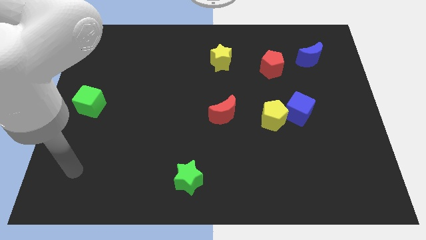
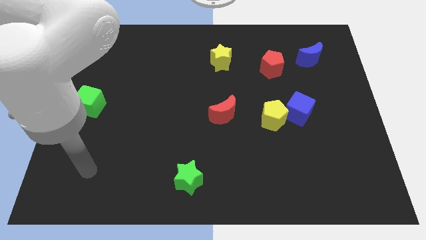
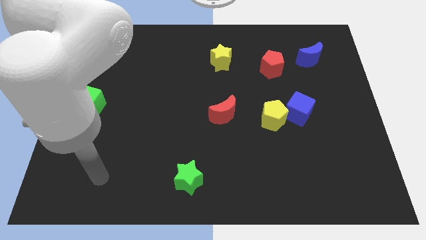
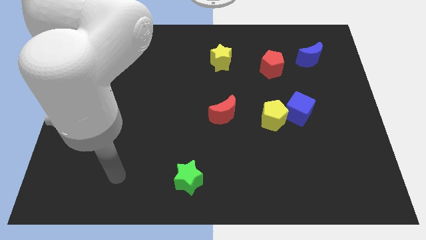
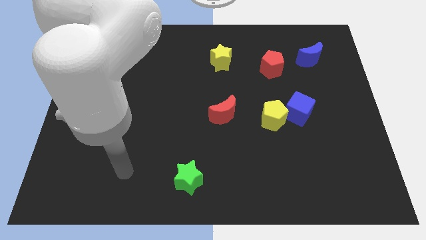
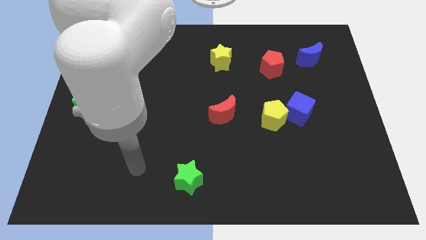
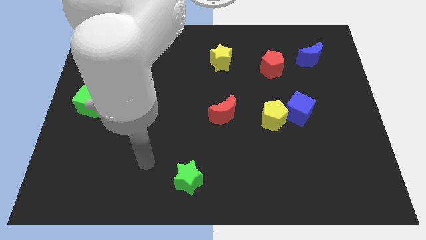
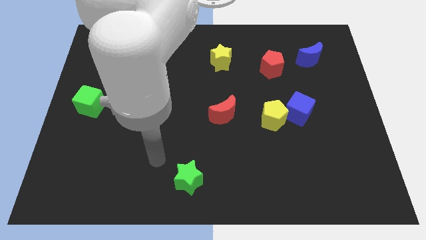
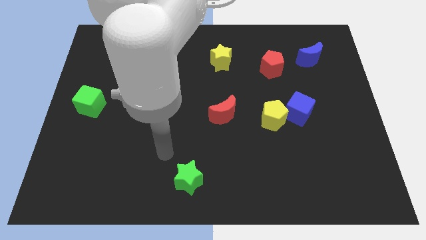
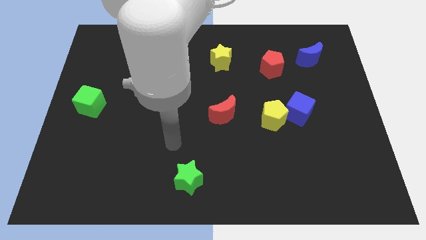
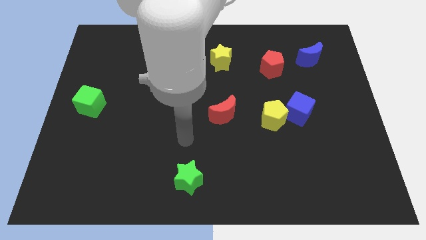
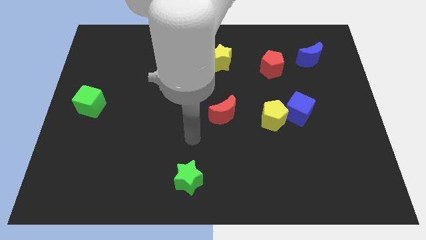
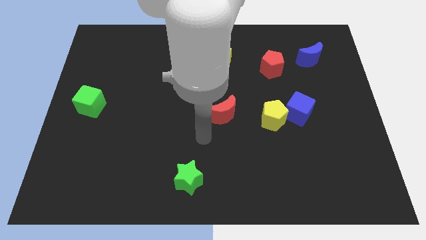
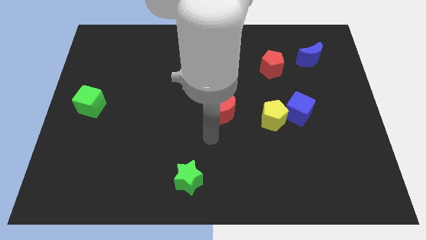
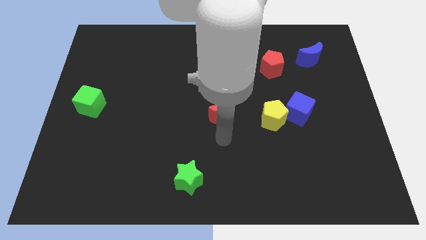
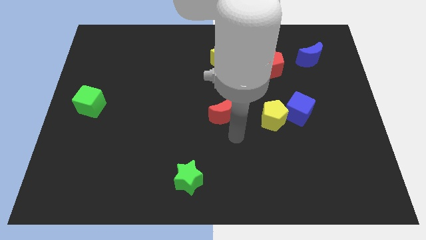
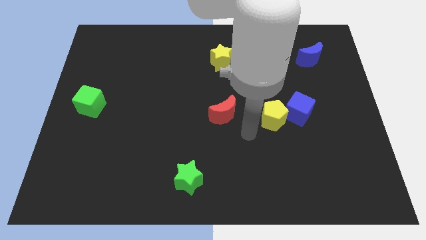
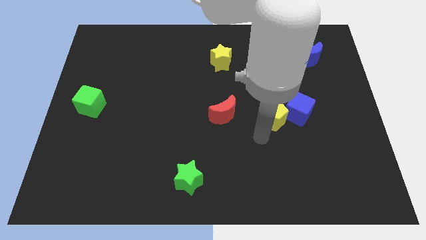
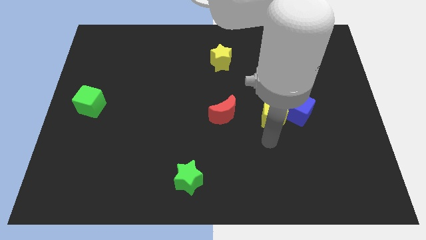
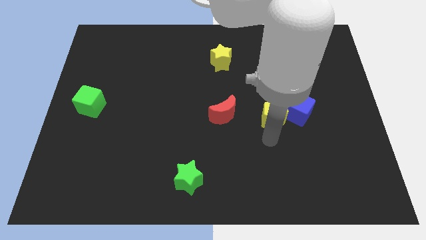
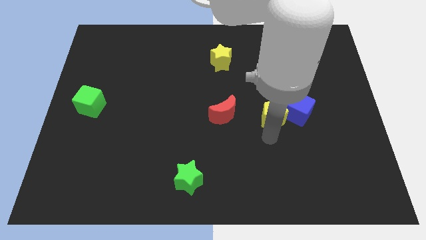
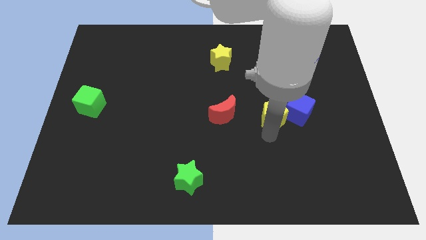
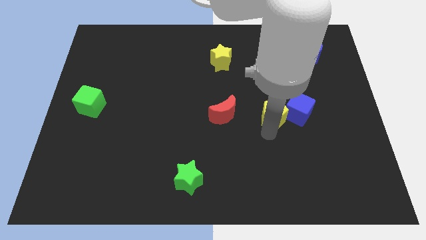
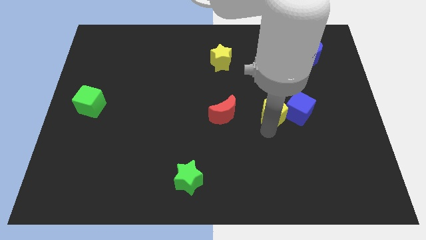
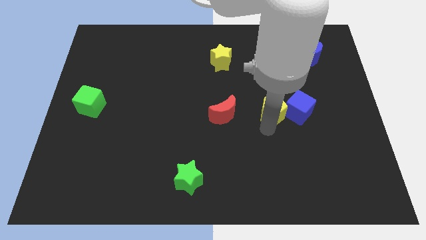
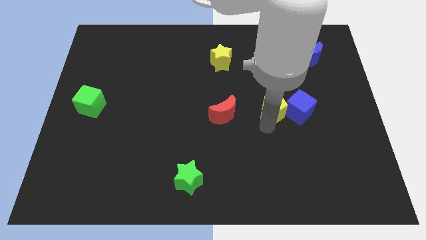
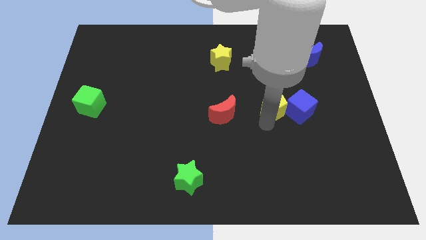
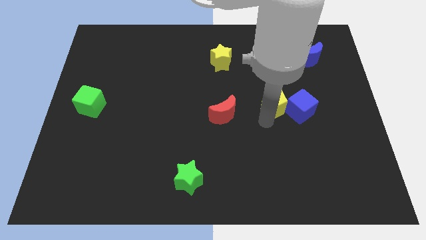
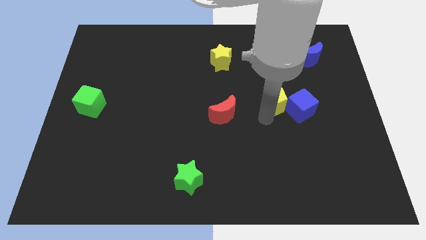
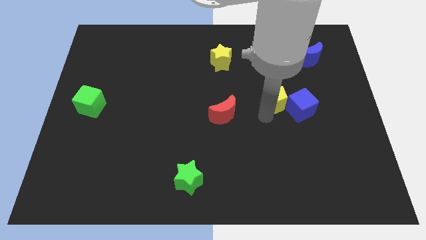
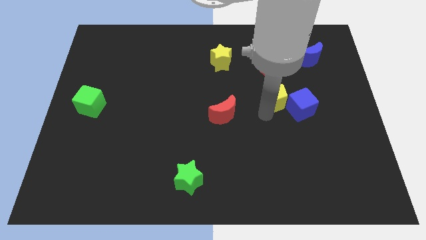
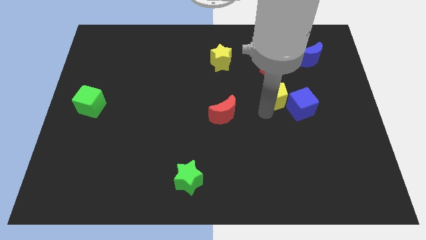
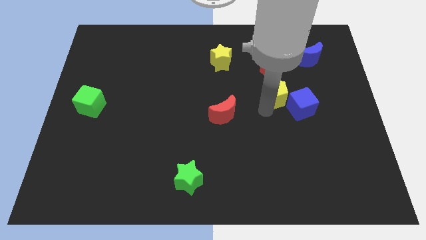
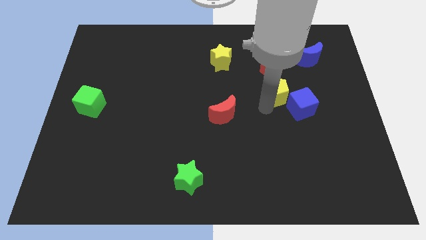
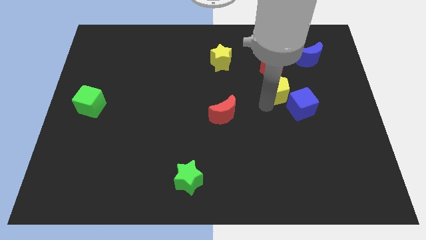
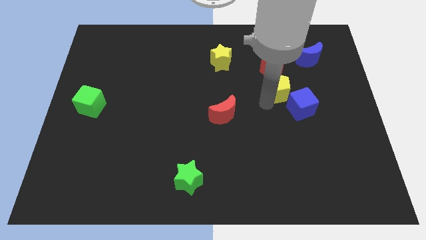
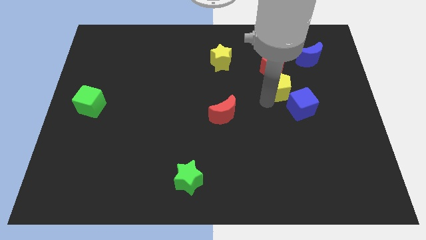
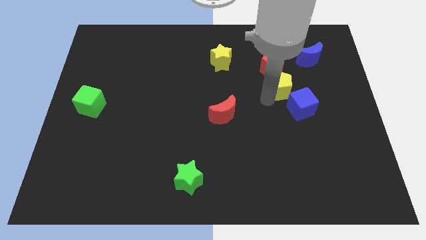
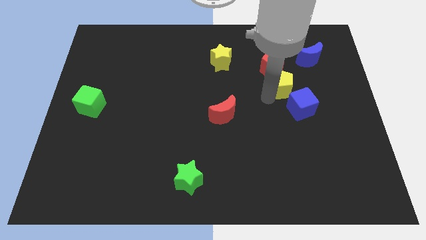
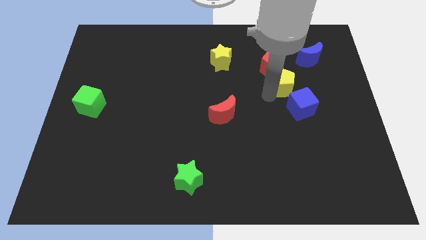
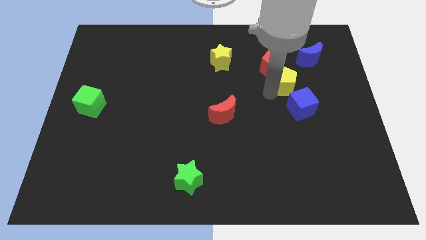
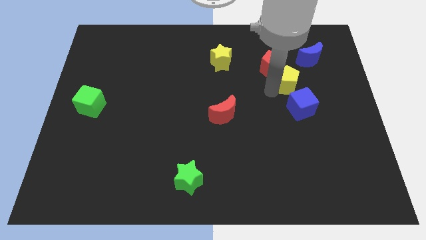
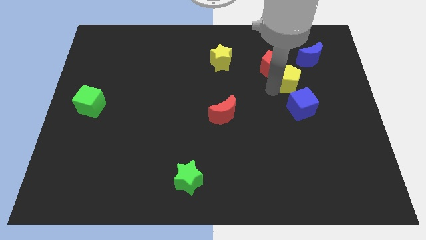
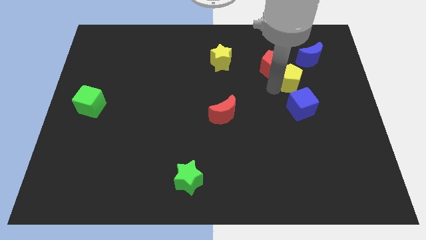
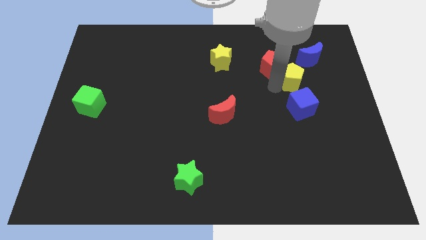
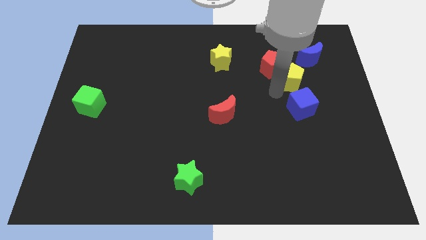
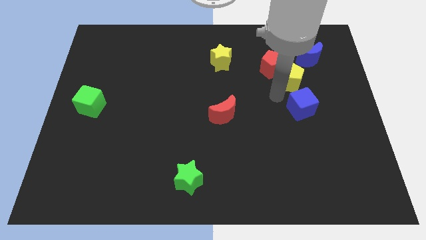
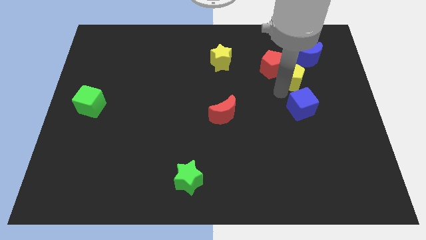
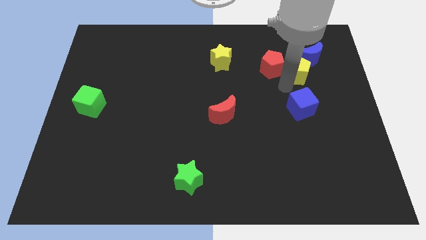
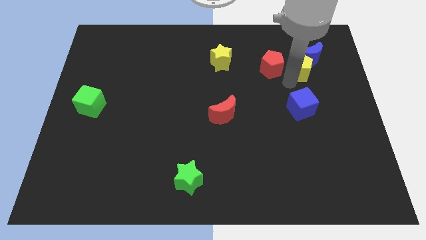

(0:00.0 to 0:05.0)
move the yellow pentagon close to the blue moon

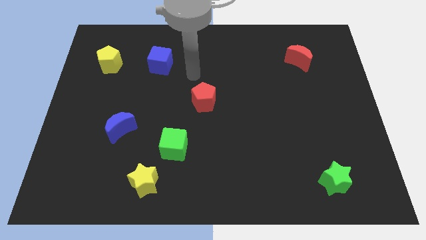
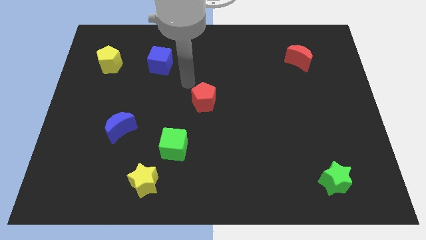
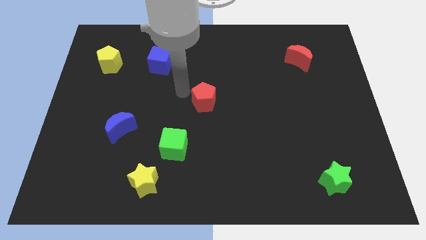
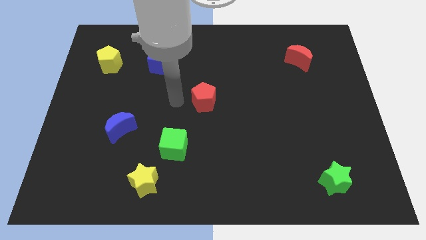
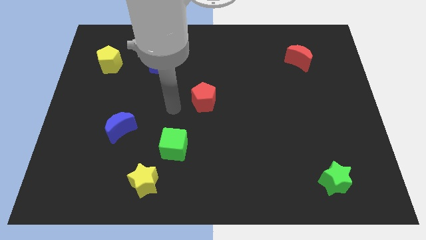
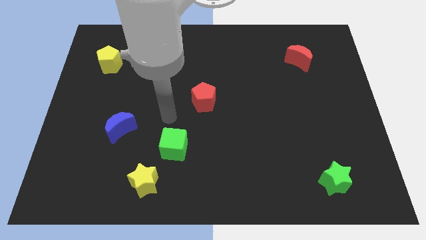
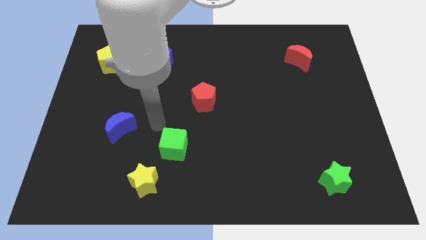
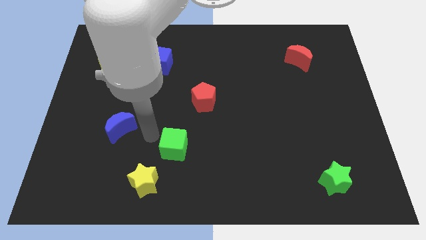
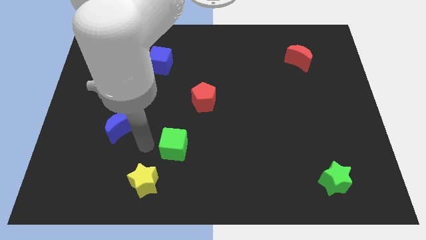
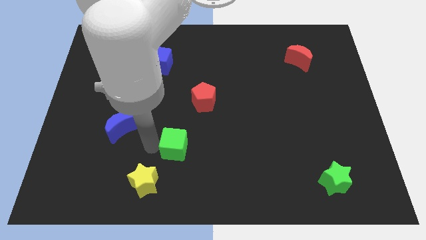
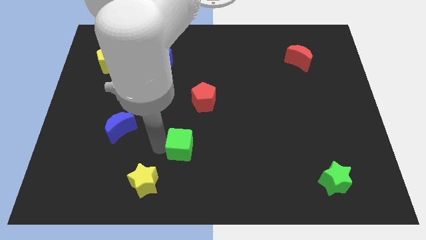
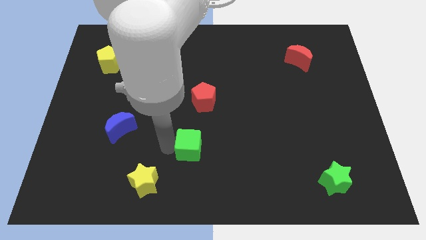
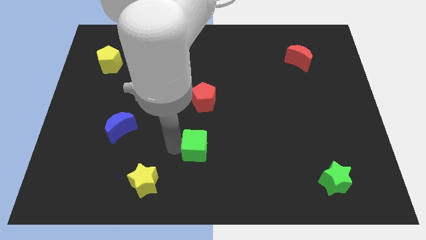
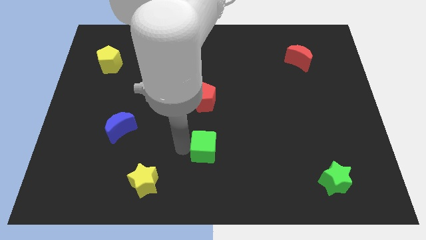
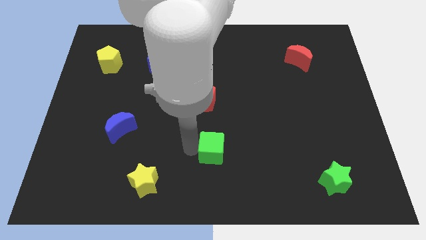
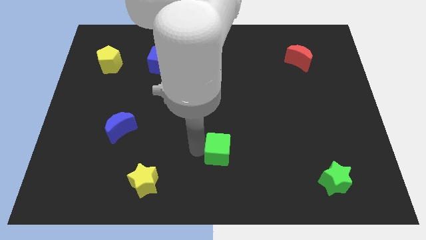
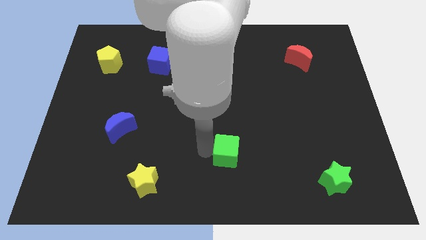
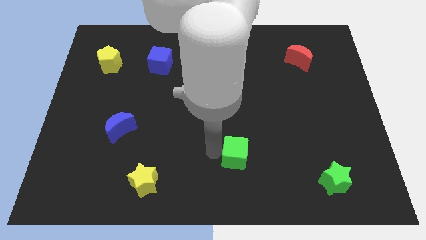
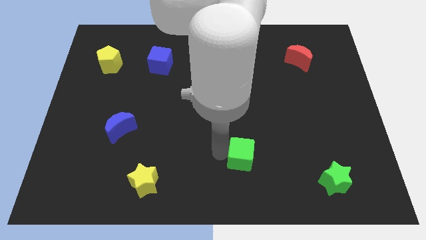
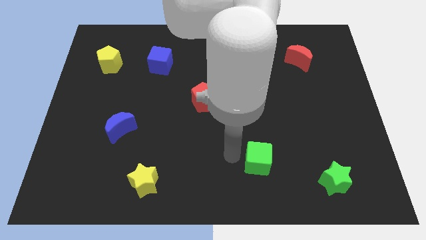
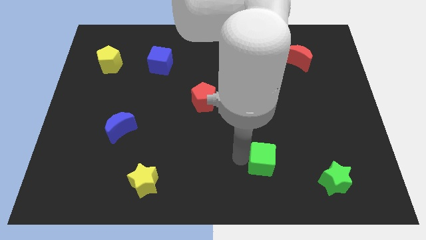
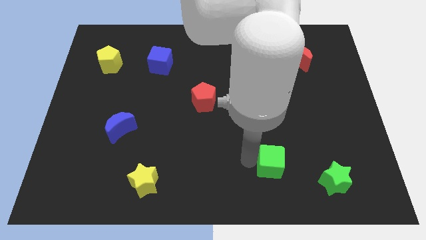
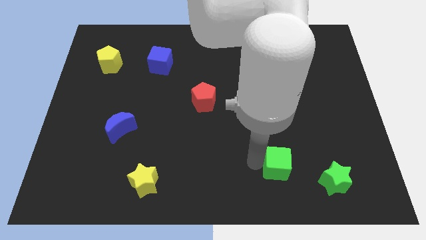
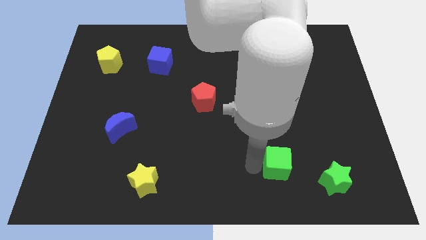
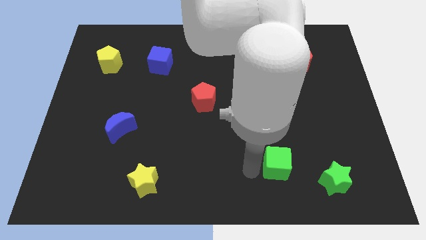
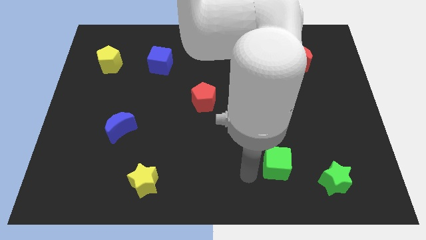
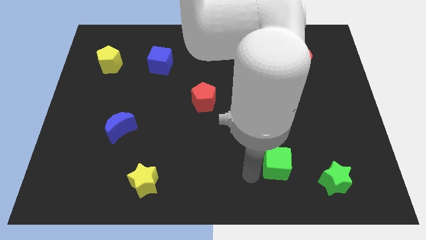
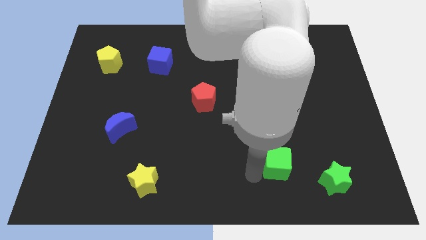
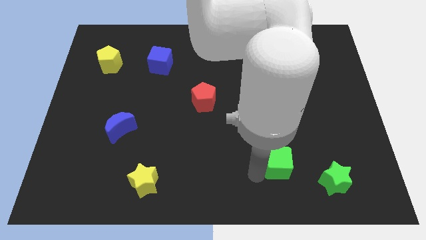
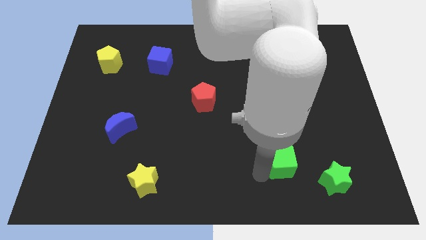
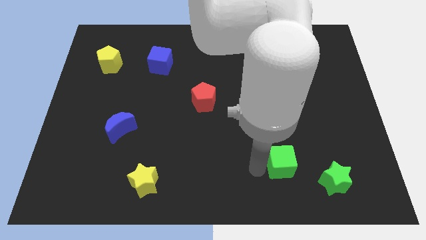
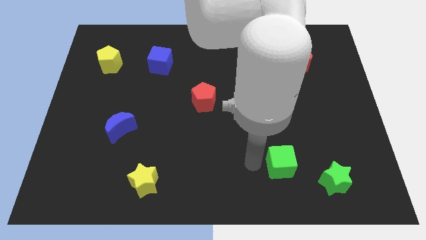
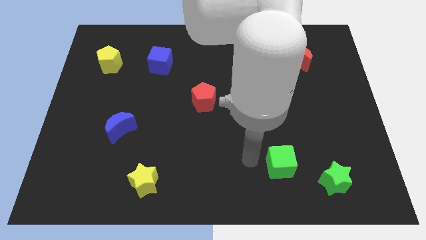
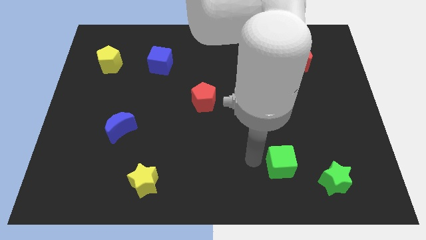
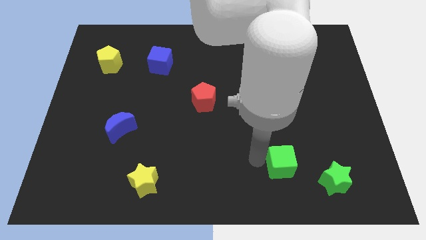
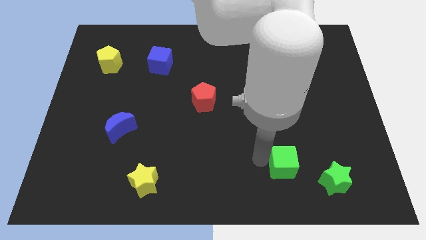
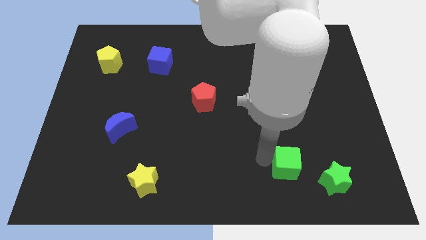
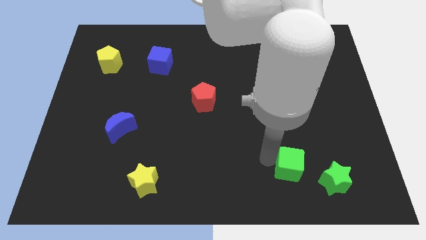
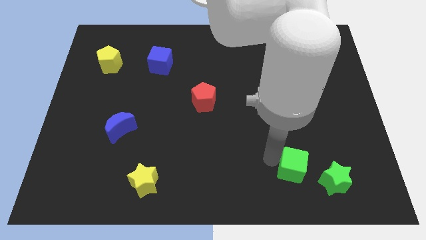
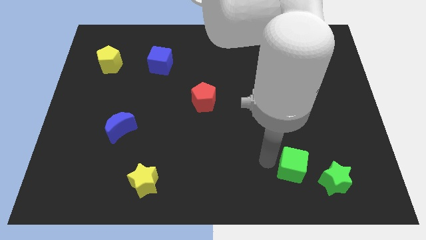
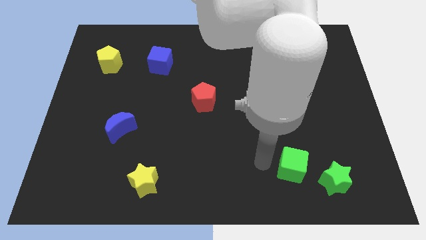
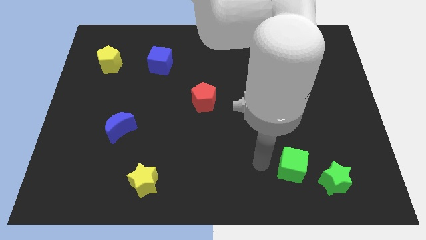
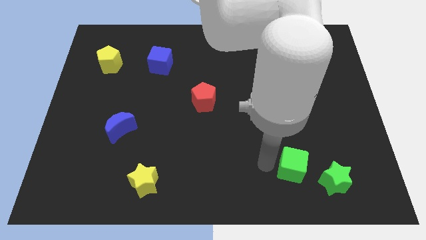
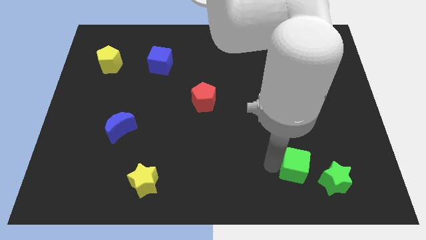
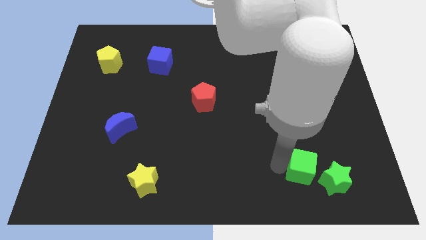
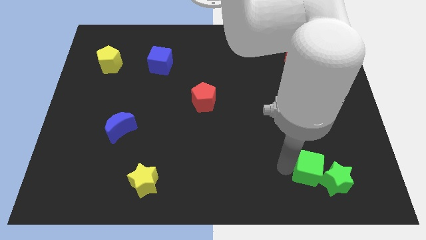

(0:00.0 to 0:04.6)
move the green cube close to the green star
